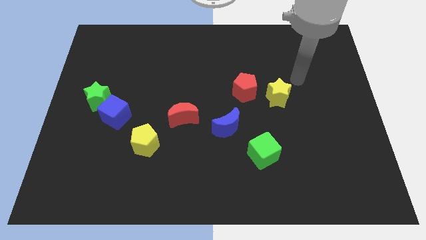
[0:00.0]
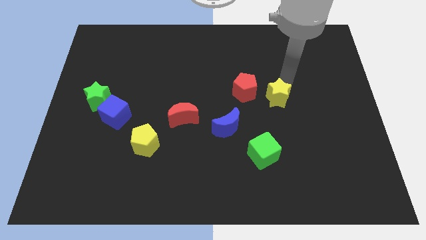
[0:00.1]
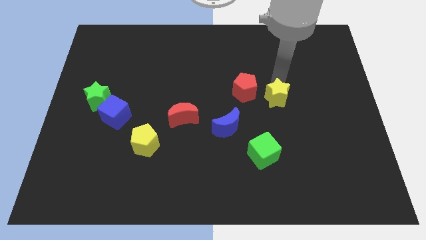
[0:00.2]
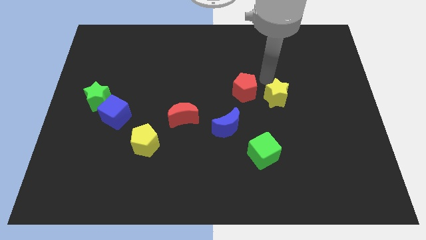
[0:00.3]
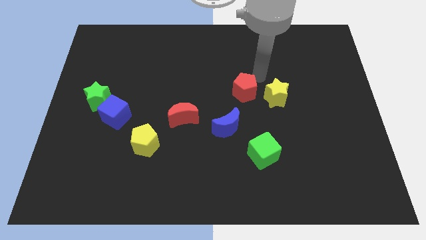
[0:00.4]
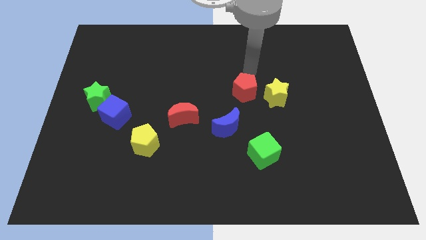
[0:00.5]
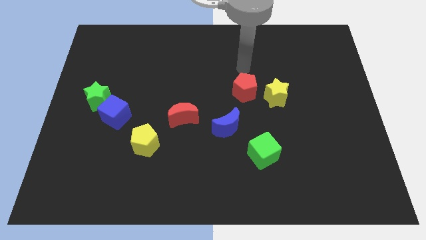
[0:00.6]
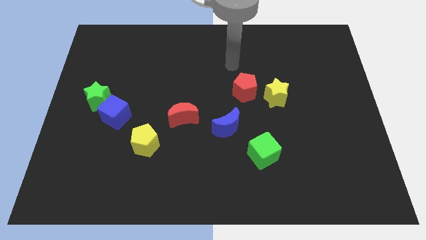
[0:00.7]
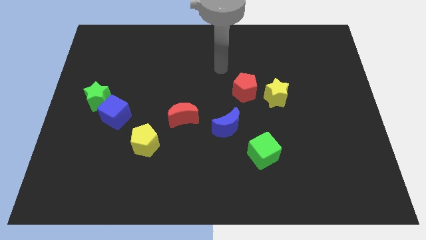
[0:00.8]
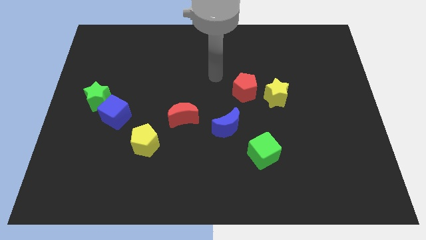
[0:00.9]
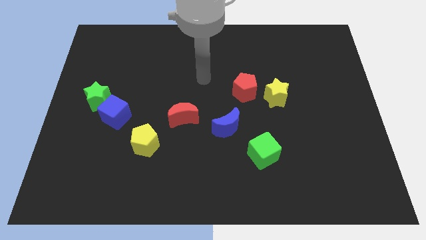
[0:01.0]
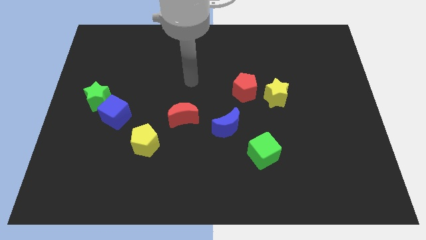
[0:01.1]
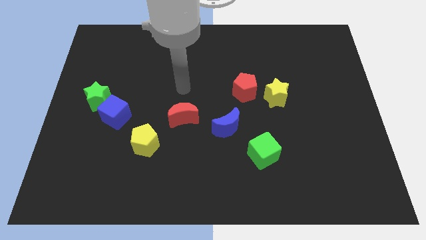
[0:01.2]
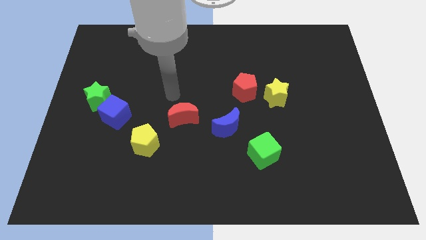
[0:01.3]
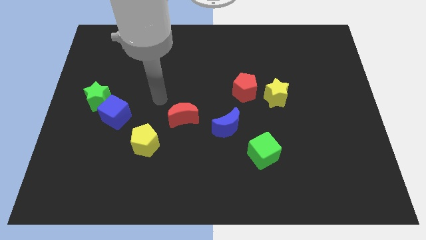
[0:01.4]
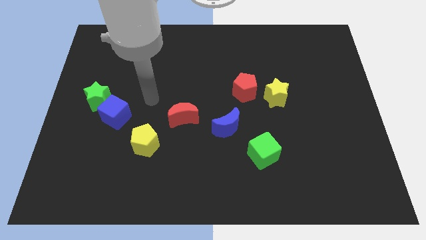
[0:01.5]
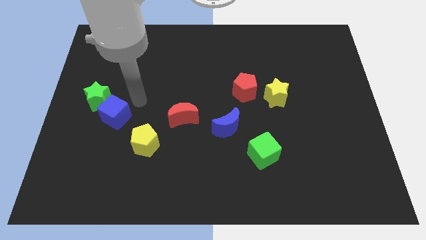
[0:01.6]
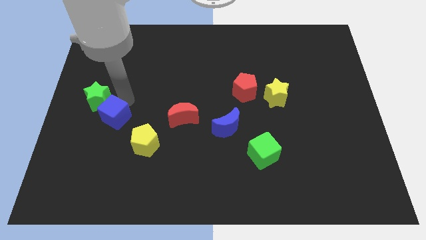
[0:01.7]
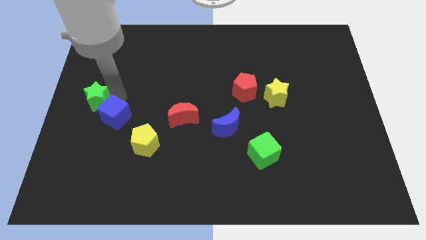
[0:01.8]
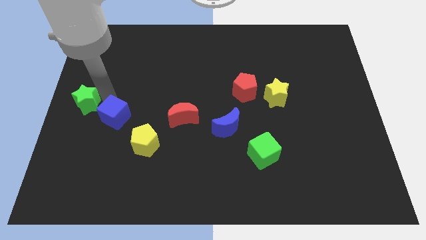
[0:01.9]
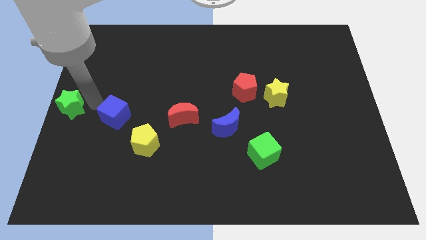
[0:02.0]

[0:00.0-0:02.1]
separate the blue cube from the green star

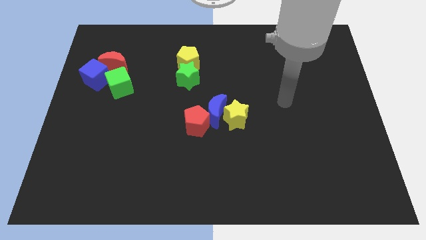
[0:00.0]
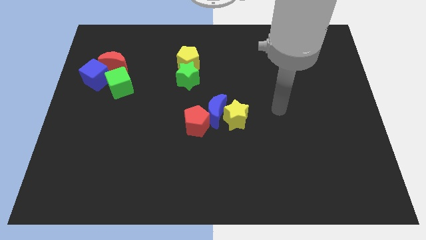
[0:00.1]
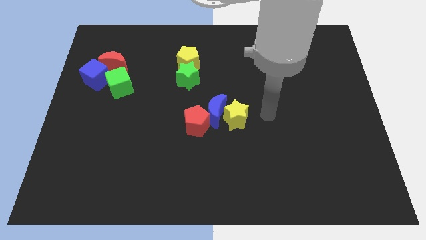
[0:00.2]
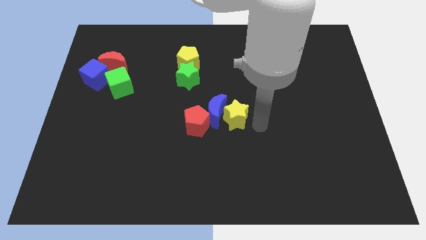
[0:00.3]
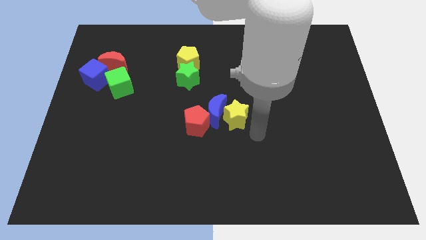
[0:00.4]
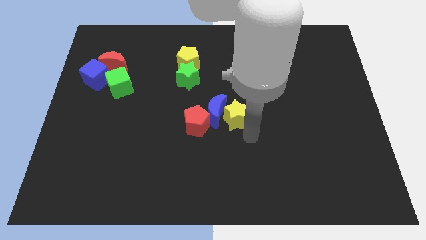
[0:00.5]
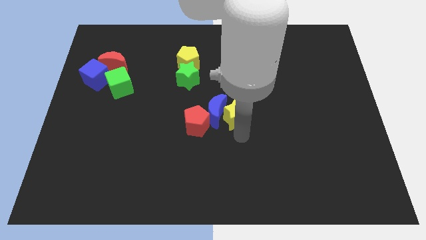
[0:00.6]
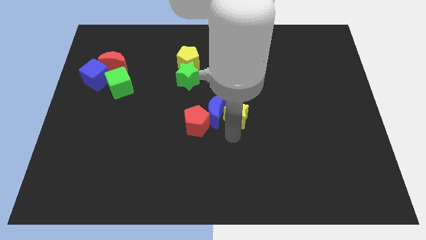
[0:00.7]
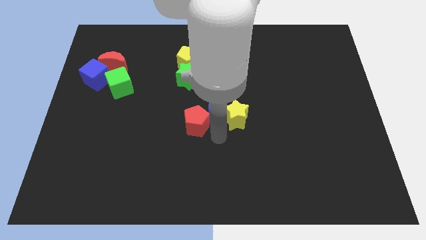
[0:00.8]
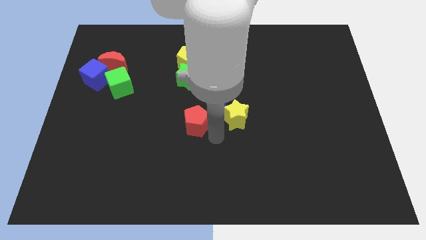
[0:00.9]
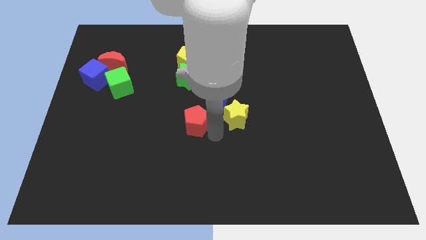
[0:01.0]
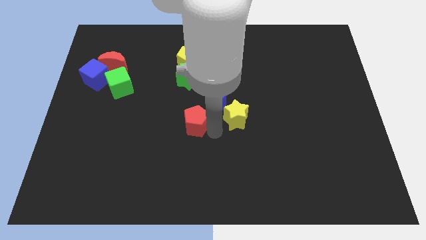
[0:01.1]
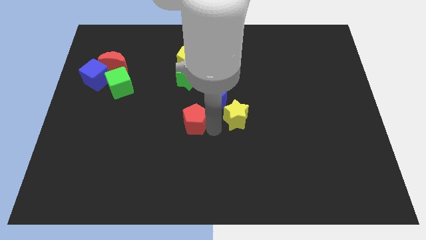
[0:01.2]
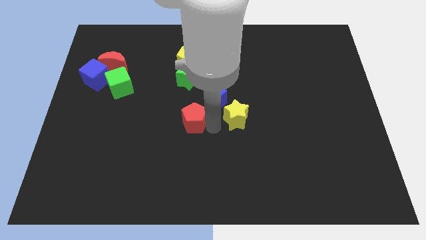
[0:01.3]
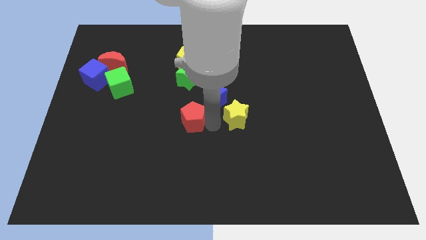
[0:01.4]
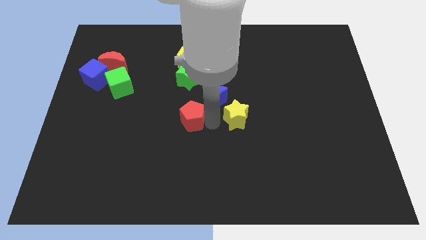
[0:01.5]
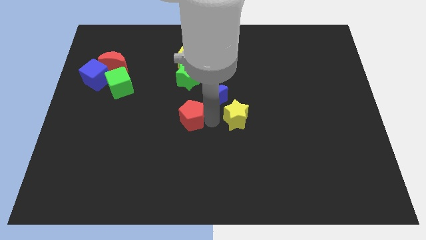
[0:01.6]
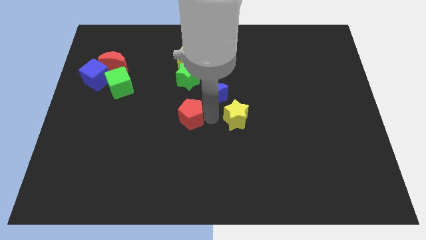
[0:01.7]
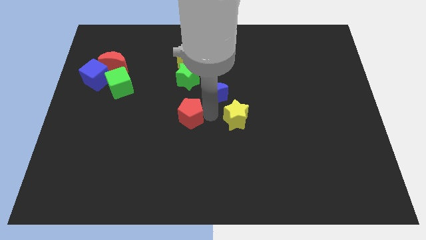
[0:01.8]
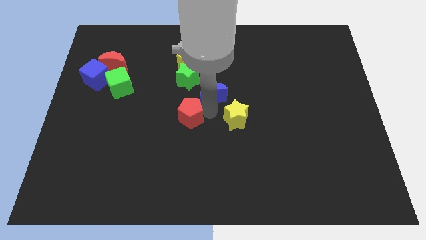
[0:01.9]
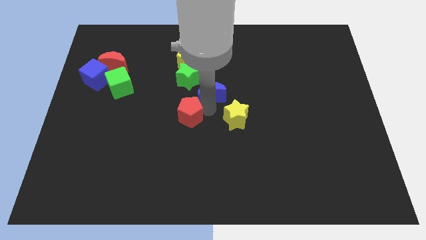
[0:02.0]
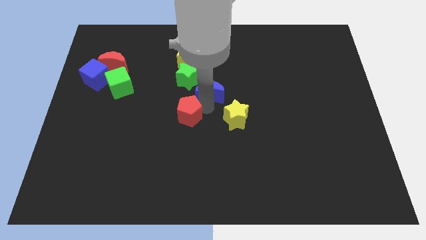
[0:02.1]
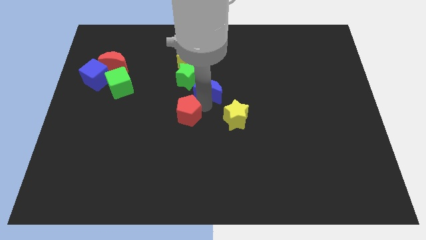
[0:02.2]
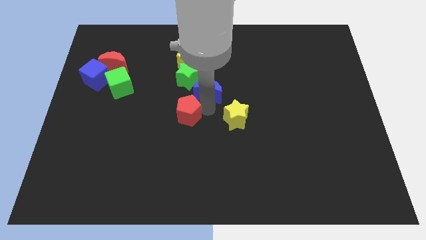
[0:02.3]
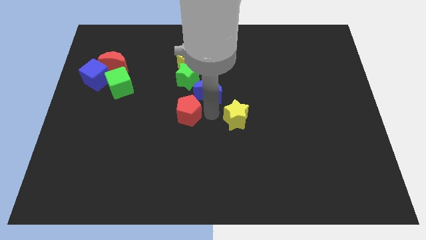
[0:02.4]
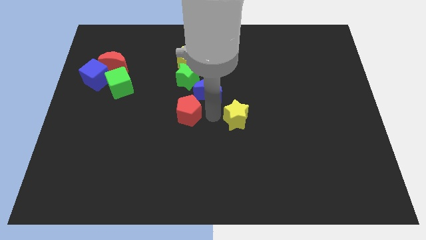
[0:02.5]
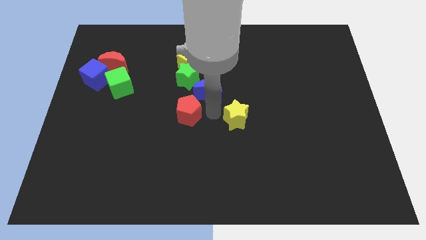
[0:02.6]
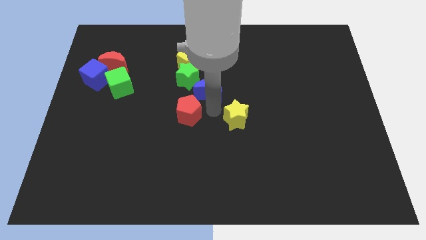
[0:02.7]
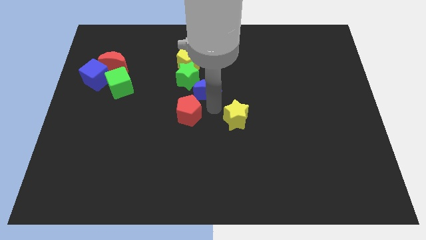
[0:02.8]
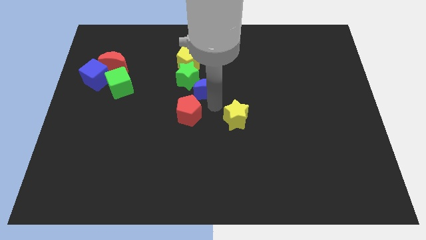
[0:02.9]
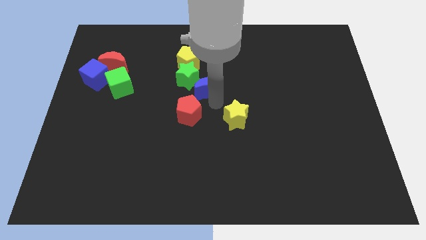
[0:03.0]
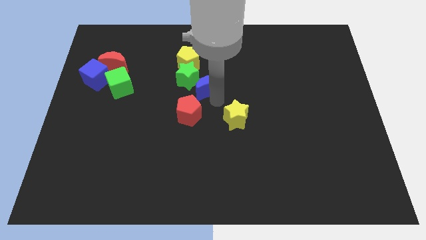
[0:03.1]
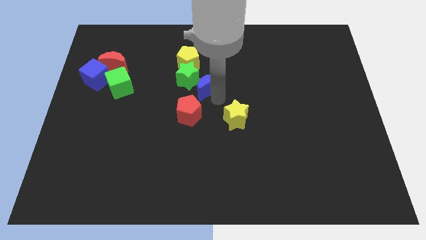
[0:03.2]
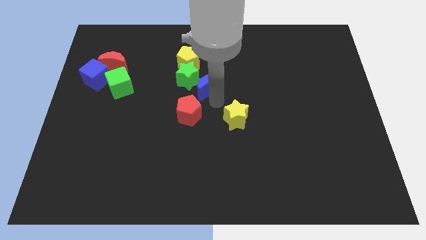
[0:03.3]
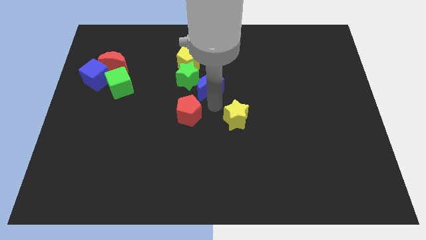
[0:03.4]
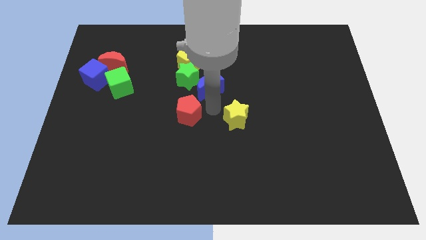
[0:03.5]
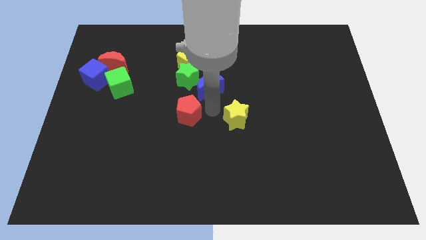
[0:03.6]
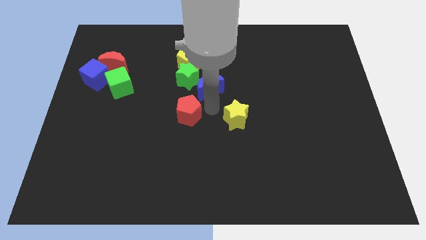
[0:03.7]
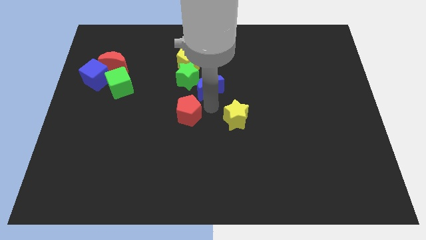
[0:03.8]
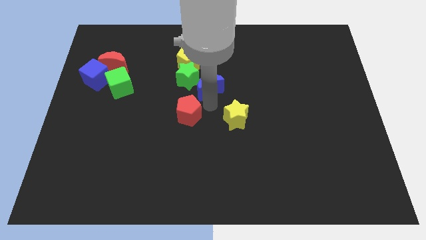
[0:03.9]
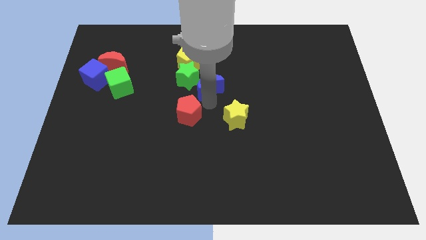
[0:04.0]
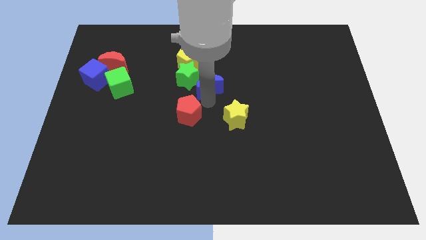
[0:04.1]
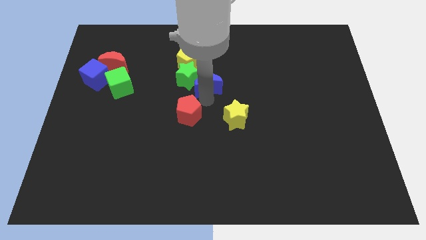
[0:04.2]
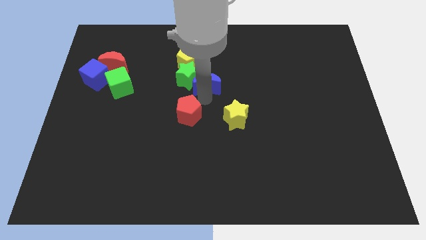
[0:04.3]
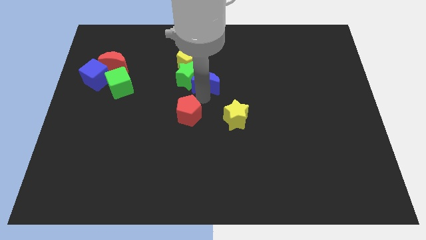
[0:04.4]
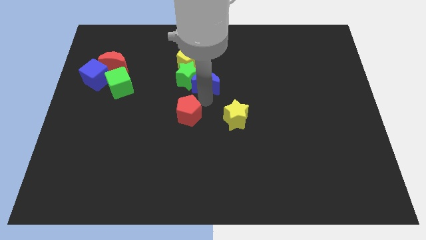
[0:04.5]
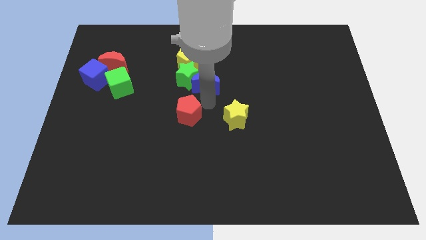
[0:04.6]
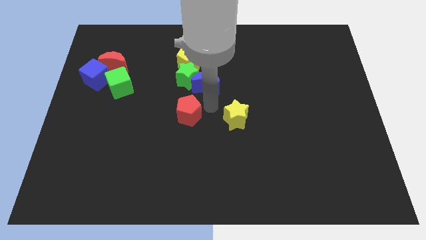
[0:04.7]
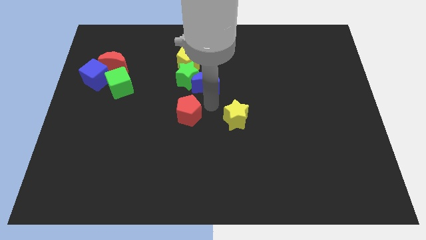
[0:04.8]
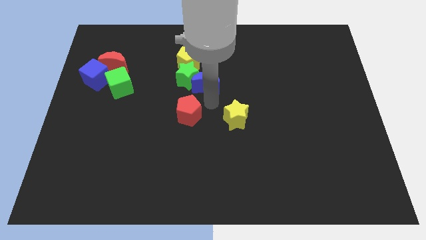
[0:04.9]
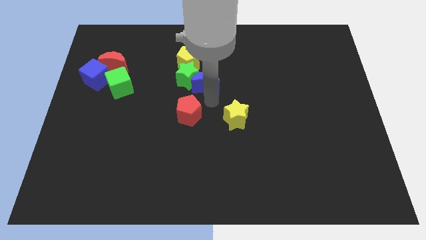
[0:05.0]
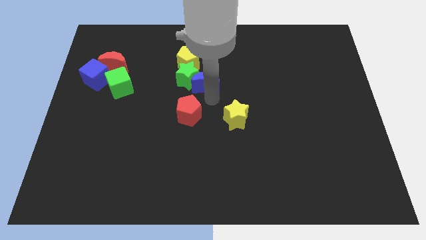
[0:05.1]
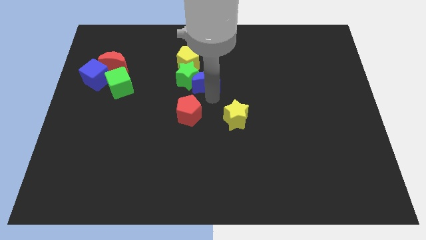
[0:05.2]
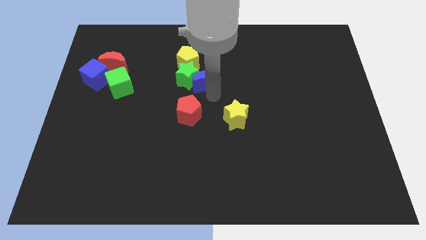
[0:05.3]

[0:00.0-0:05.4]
pull the blue moon apart from the yellow star and red pentagon

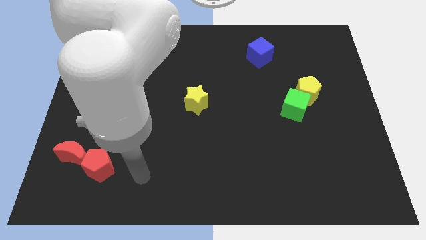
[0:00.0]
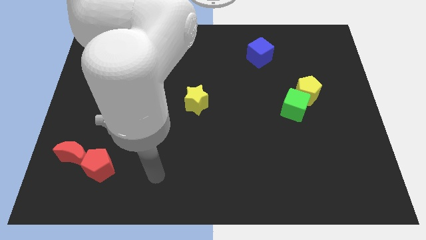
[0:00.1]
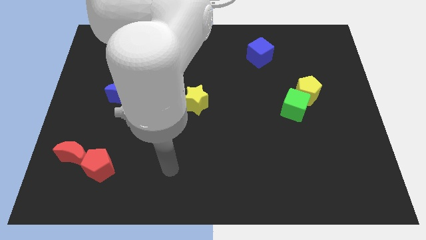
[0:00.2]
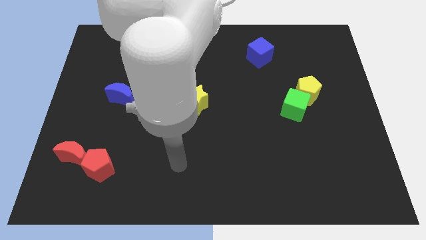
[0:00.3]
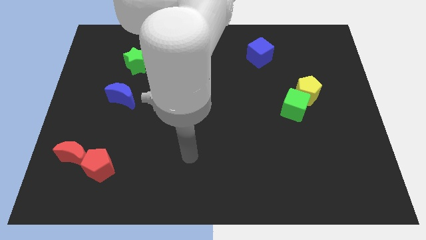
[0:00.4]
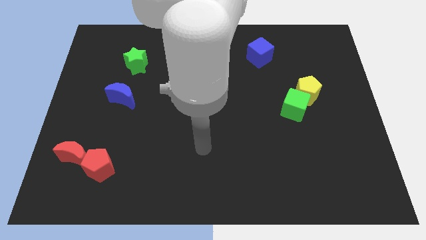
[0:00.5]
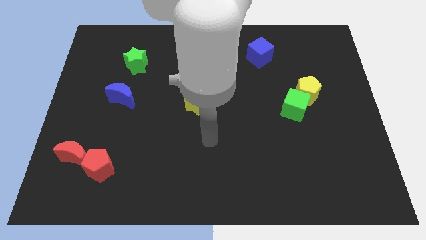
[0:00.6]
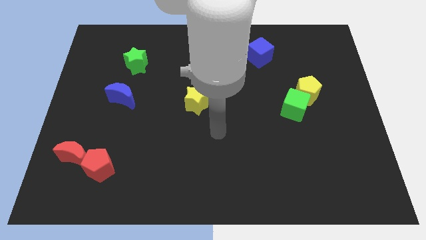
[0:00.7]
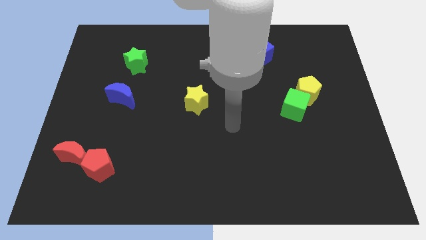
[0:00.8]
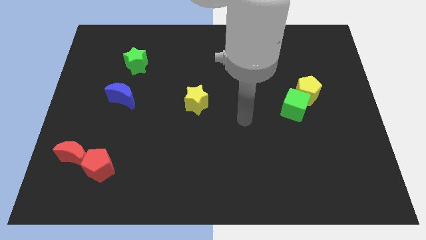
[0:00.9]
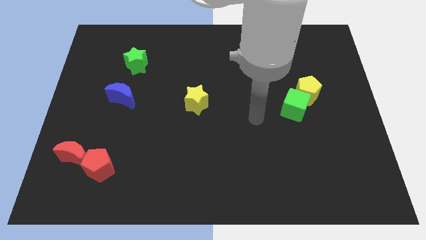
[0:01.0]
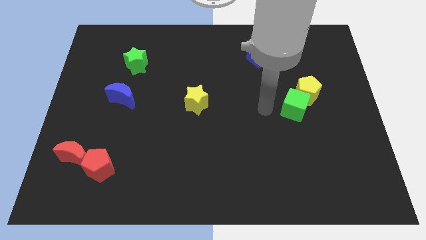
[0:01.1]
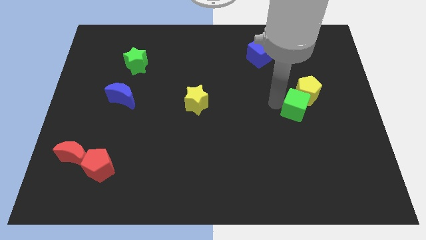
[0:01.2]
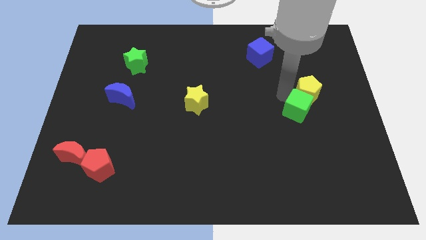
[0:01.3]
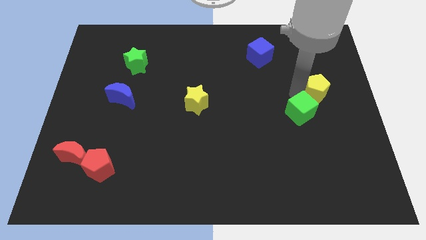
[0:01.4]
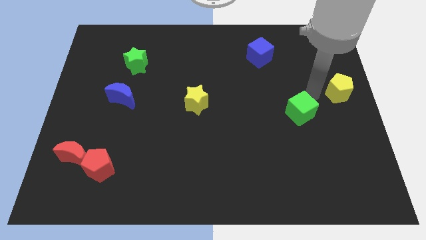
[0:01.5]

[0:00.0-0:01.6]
pull the green cube apart from the yellow pentagon

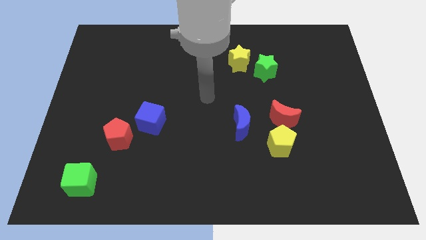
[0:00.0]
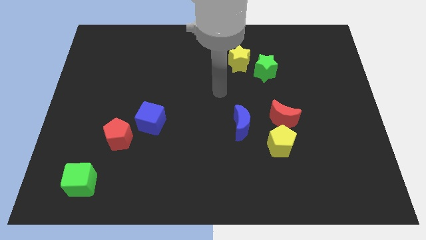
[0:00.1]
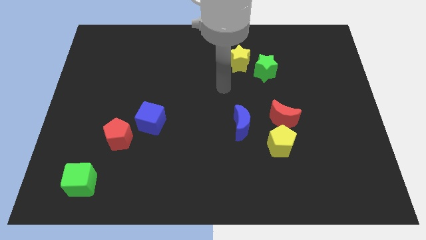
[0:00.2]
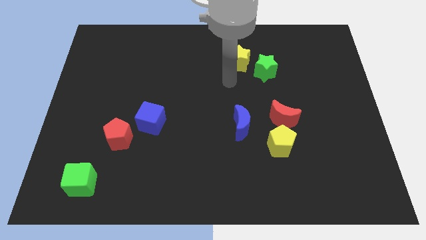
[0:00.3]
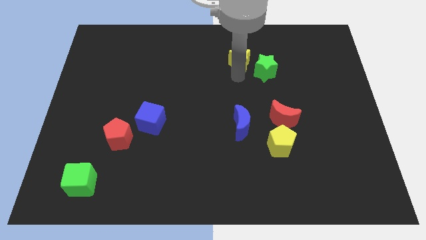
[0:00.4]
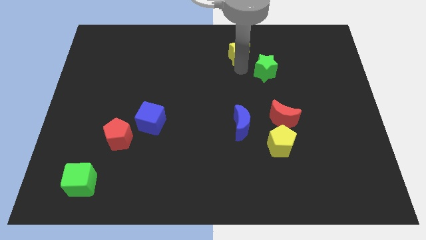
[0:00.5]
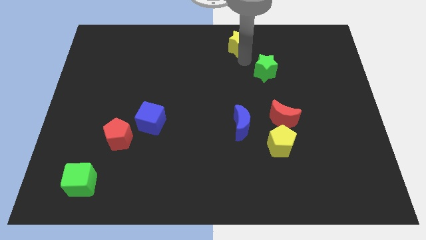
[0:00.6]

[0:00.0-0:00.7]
pull the green star apart from the yellow star
